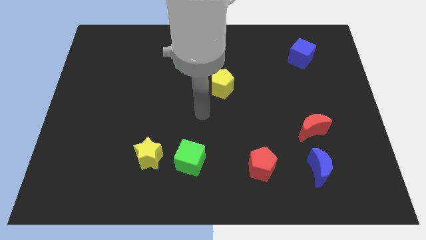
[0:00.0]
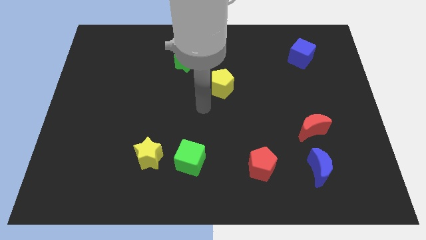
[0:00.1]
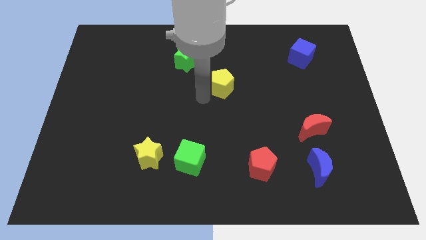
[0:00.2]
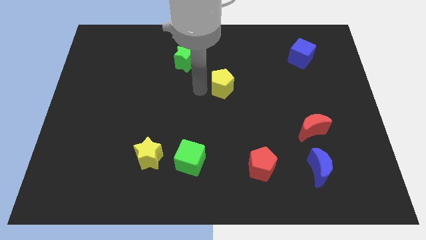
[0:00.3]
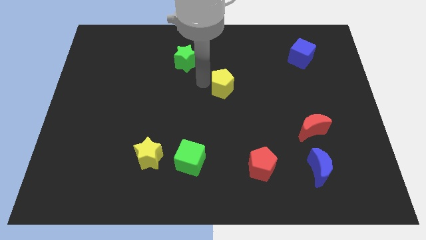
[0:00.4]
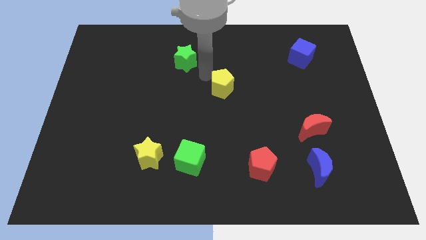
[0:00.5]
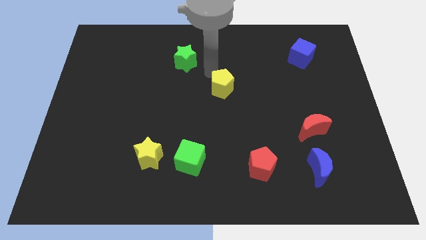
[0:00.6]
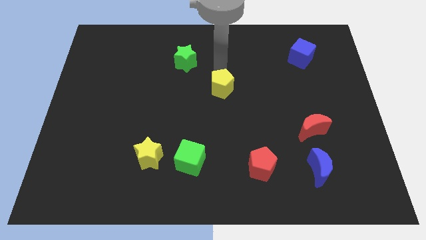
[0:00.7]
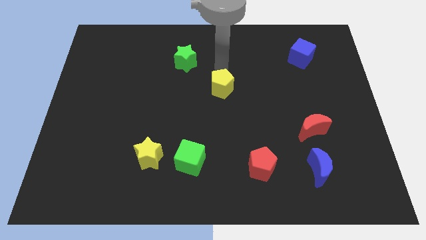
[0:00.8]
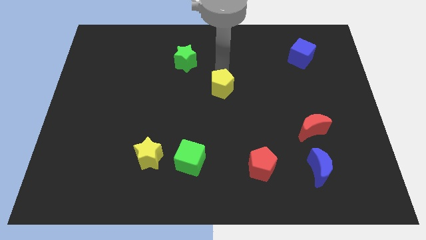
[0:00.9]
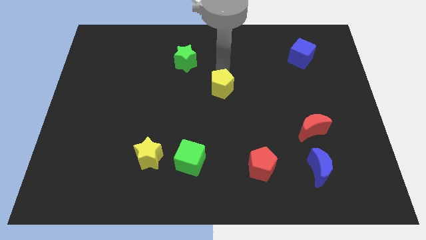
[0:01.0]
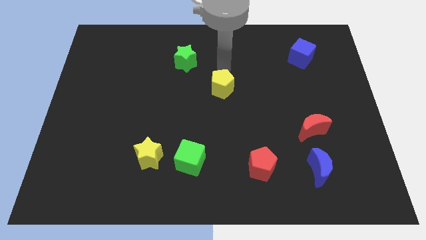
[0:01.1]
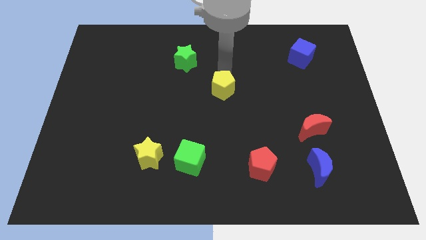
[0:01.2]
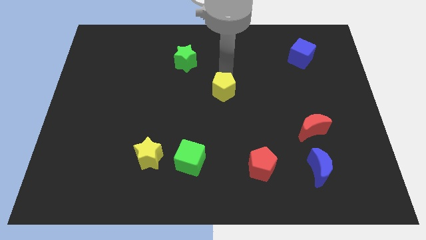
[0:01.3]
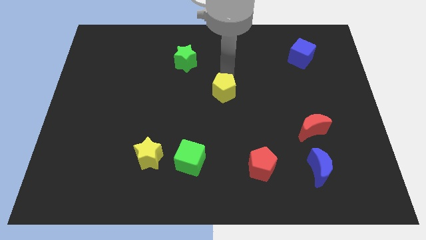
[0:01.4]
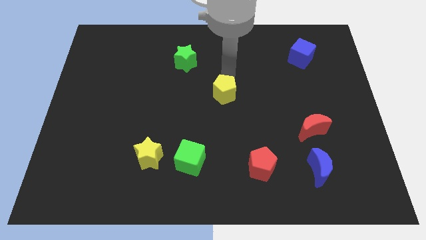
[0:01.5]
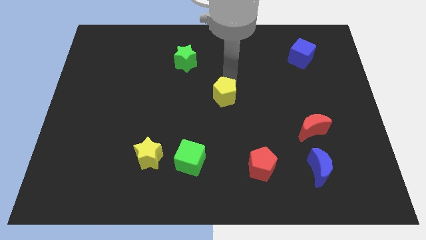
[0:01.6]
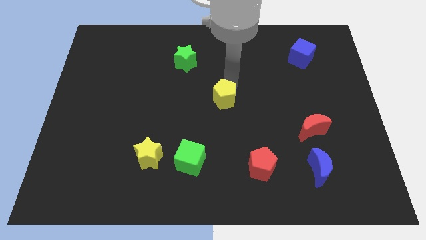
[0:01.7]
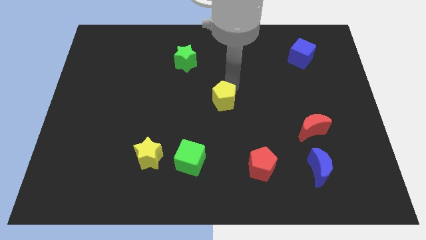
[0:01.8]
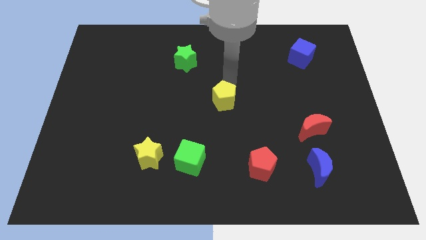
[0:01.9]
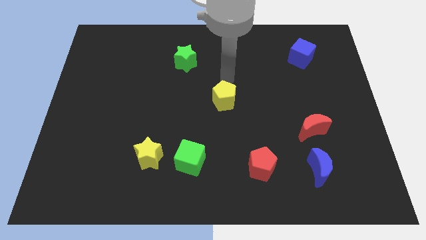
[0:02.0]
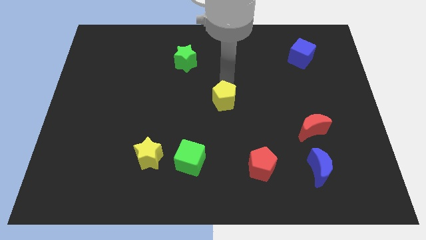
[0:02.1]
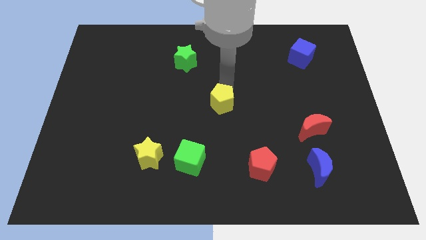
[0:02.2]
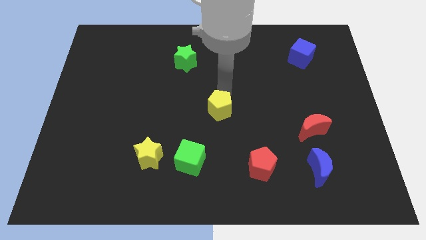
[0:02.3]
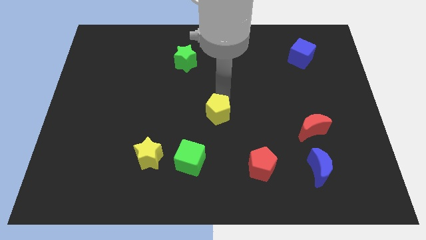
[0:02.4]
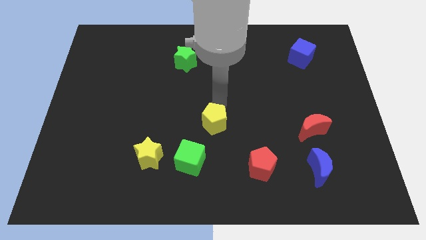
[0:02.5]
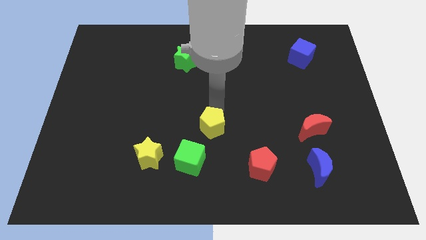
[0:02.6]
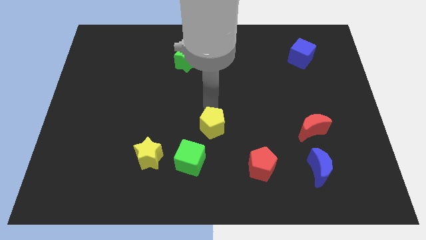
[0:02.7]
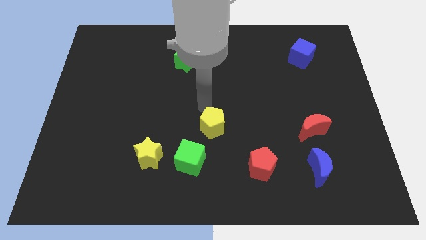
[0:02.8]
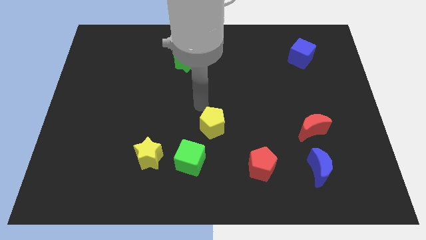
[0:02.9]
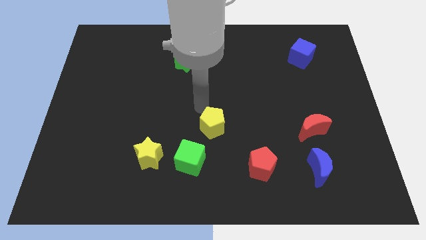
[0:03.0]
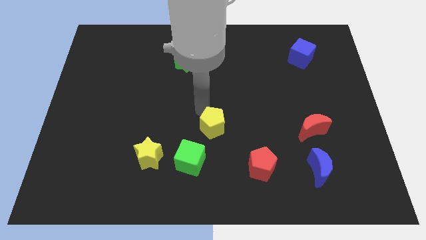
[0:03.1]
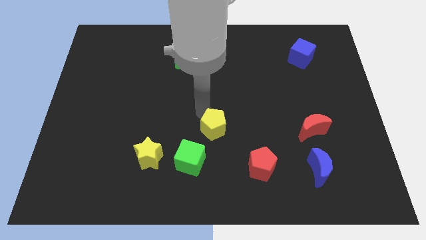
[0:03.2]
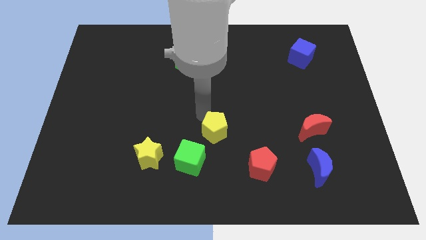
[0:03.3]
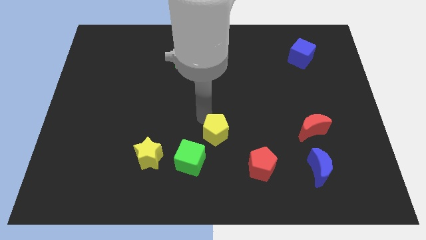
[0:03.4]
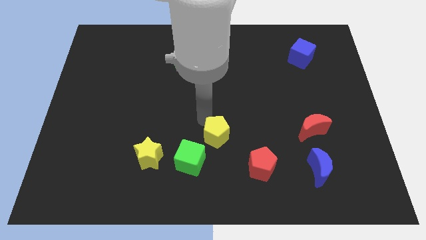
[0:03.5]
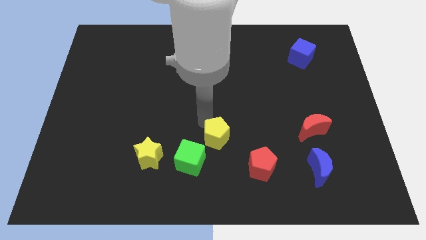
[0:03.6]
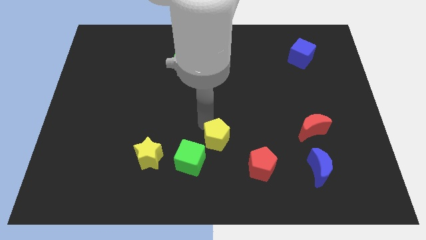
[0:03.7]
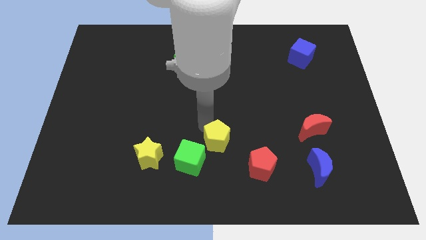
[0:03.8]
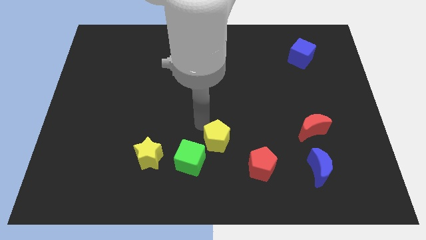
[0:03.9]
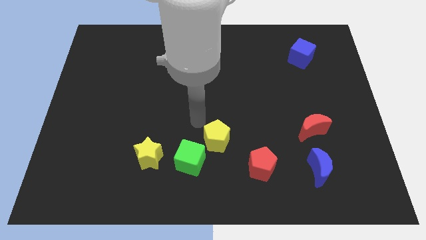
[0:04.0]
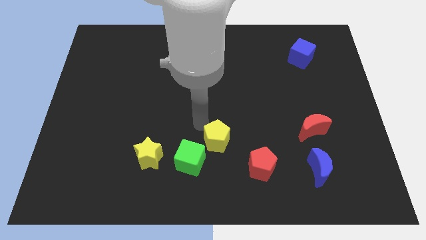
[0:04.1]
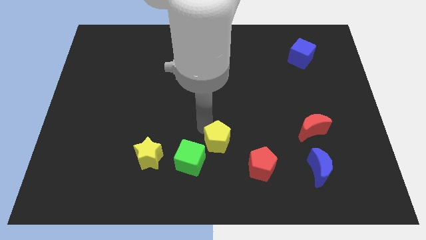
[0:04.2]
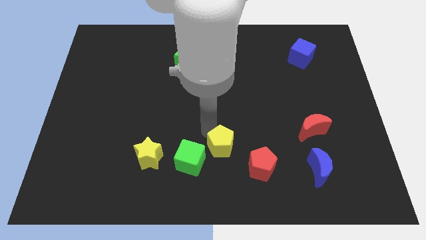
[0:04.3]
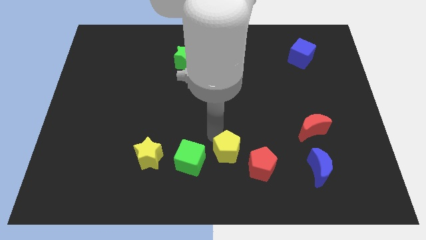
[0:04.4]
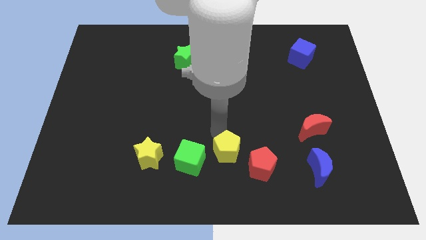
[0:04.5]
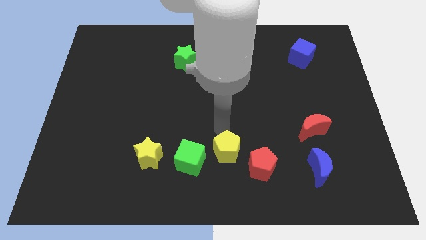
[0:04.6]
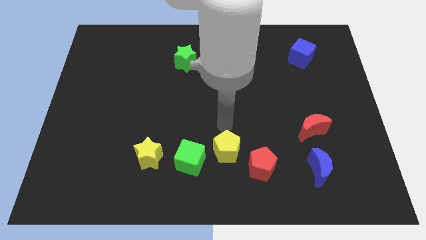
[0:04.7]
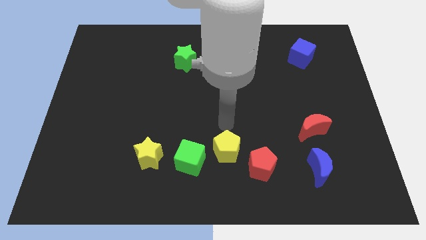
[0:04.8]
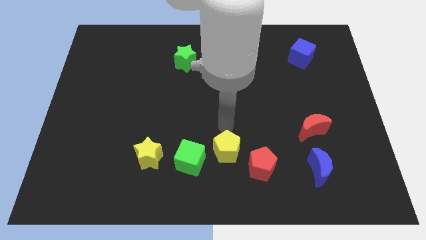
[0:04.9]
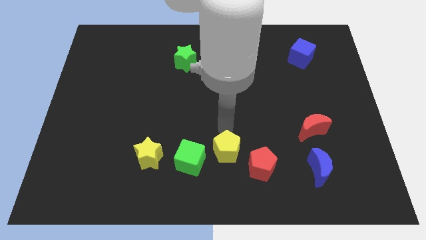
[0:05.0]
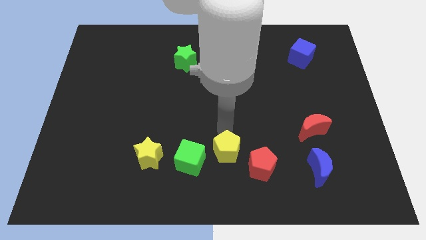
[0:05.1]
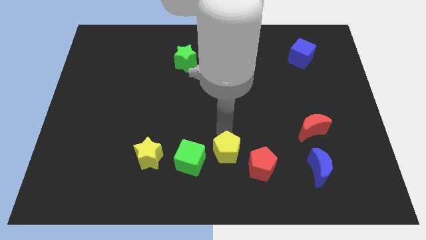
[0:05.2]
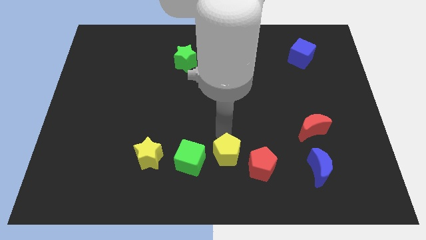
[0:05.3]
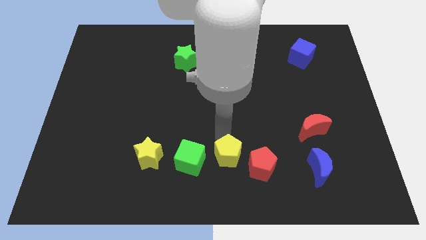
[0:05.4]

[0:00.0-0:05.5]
move the yellow pentagon to the bottom

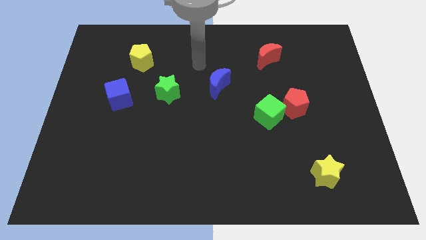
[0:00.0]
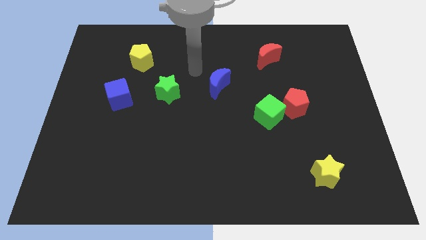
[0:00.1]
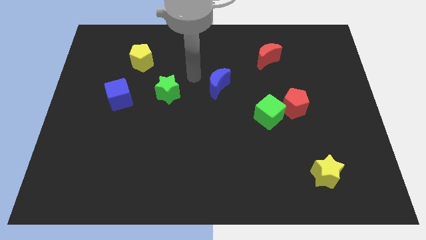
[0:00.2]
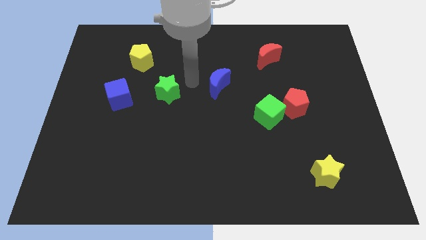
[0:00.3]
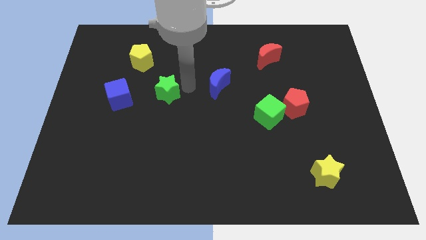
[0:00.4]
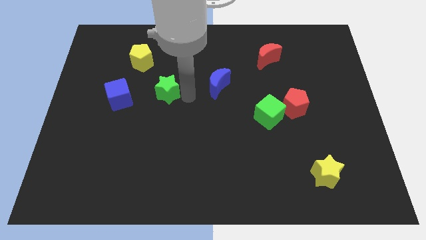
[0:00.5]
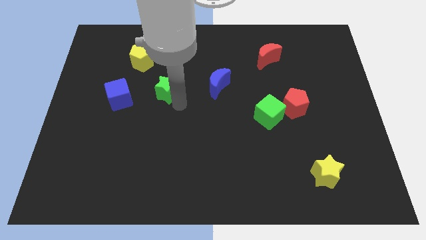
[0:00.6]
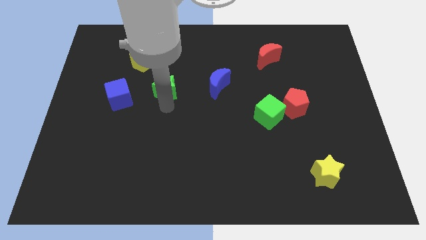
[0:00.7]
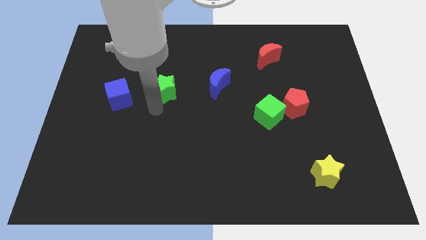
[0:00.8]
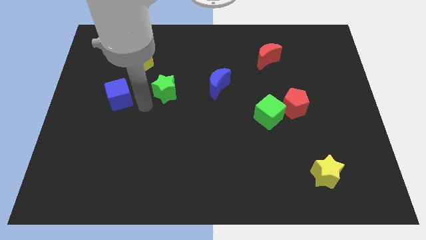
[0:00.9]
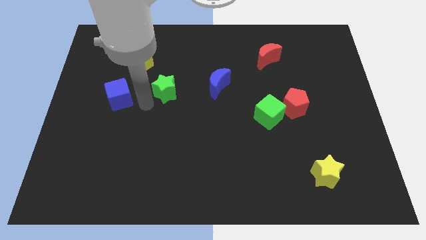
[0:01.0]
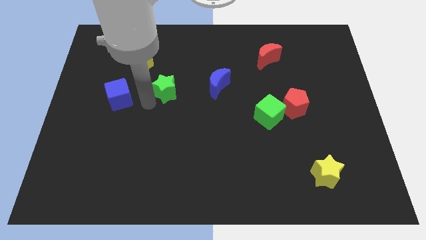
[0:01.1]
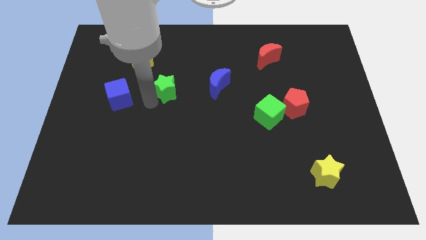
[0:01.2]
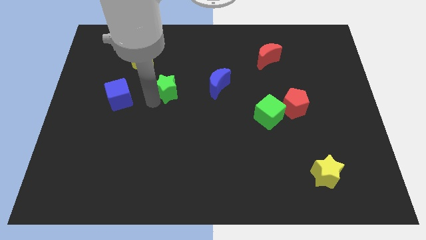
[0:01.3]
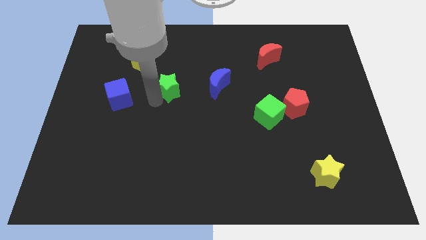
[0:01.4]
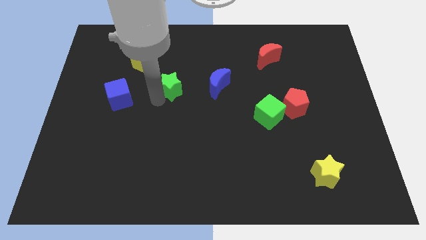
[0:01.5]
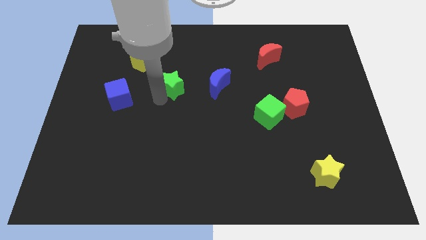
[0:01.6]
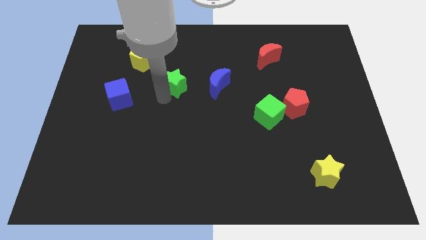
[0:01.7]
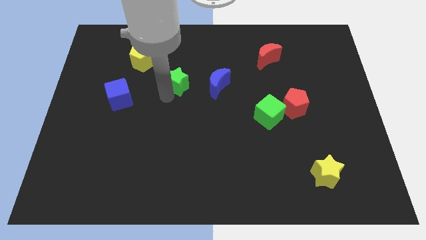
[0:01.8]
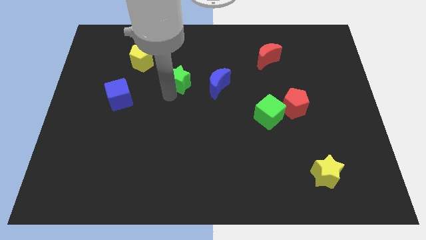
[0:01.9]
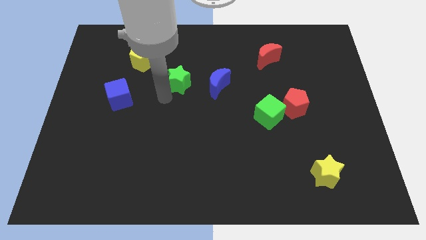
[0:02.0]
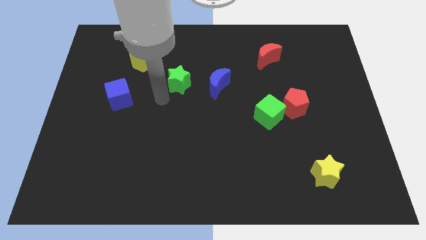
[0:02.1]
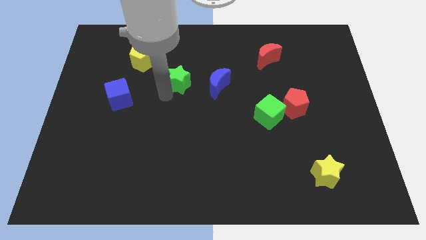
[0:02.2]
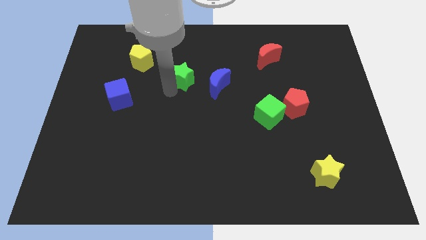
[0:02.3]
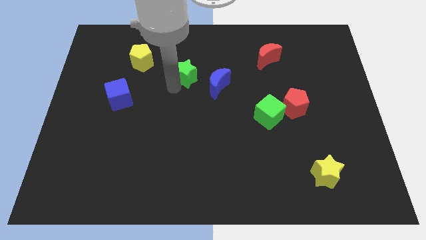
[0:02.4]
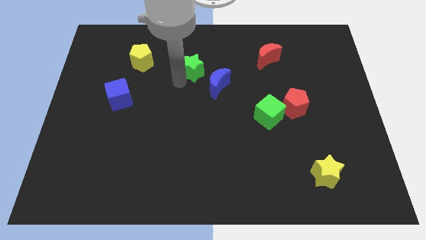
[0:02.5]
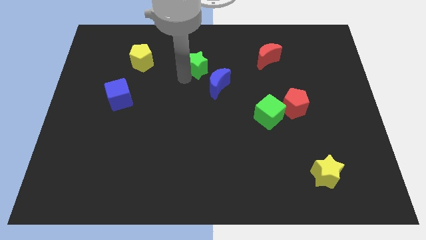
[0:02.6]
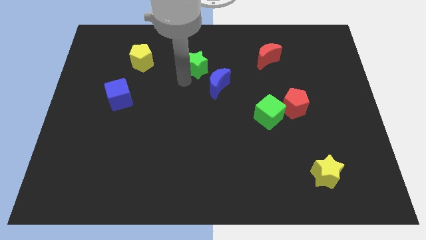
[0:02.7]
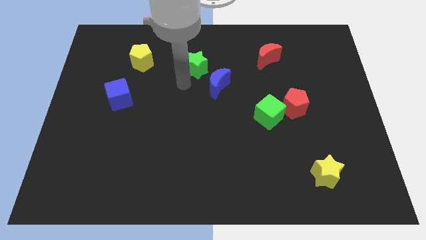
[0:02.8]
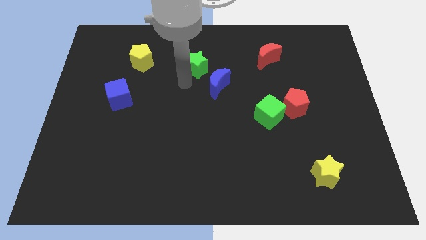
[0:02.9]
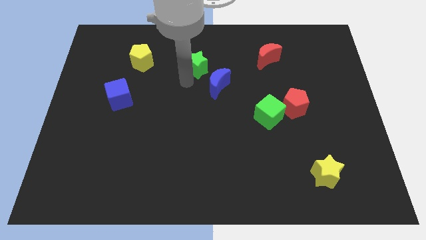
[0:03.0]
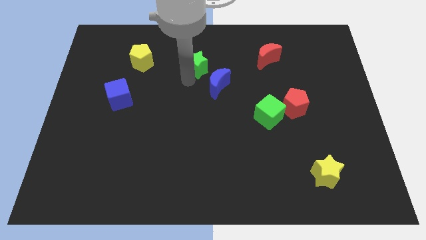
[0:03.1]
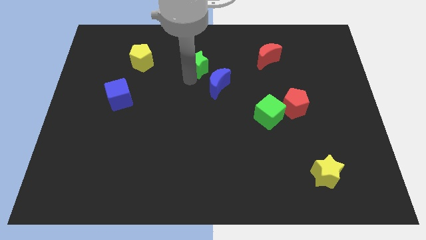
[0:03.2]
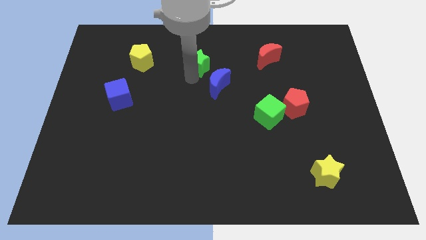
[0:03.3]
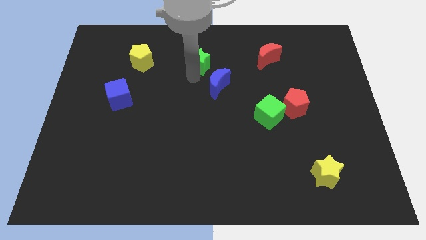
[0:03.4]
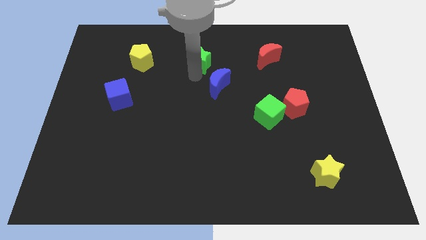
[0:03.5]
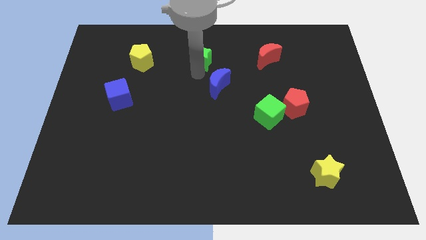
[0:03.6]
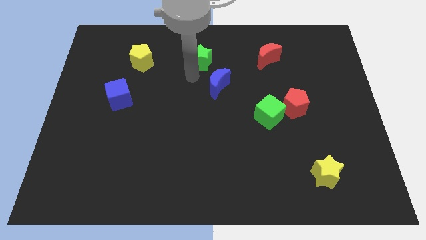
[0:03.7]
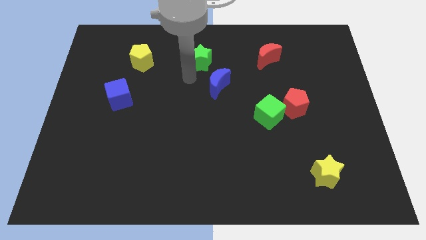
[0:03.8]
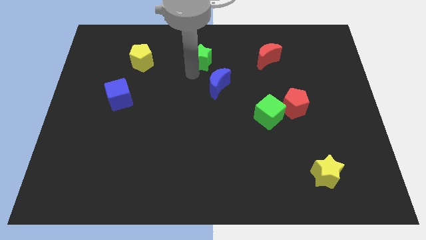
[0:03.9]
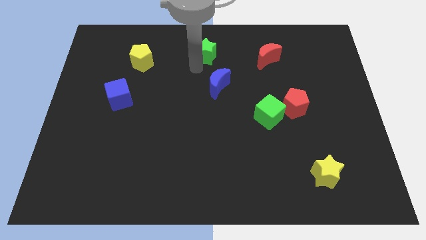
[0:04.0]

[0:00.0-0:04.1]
push the green star to the top
